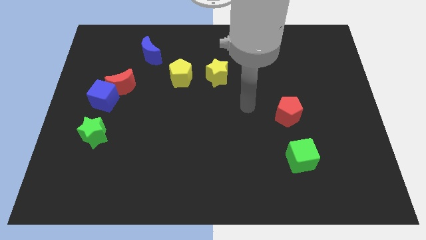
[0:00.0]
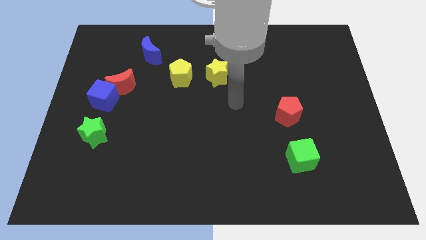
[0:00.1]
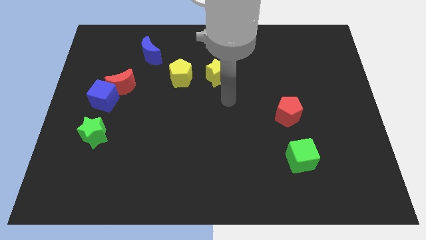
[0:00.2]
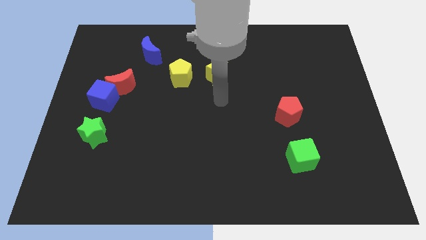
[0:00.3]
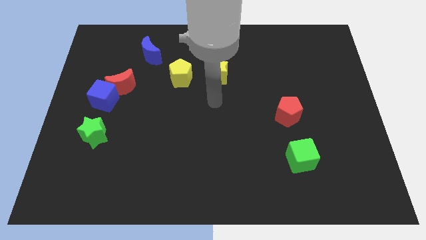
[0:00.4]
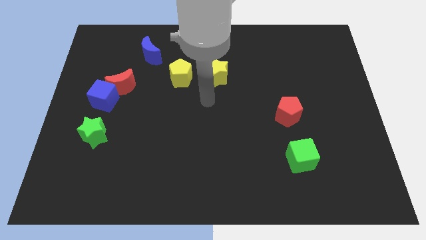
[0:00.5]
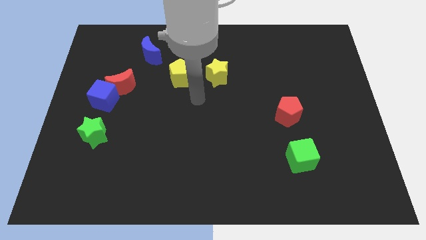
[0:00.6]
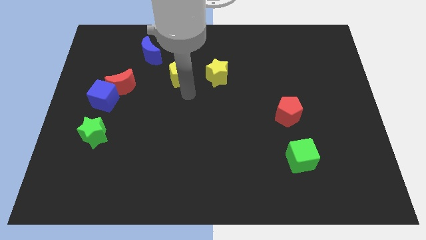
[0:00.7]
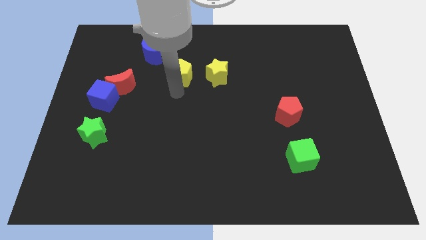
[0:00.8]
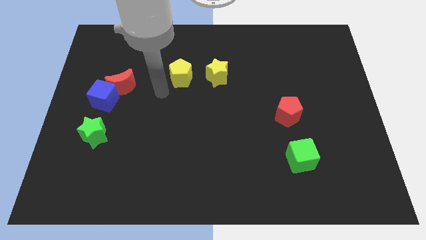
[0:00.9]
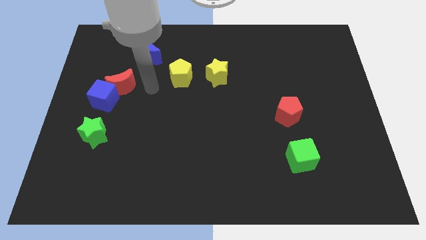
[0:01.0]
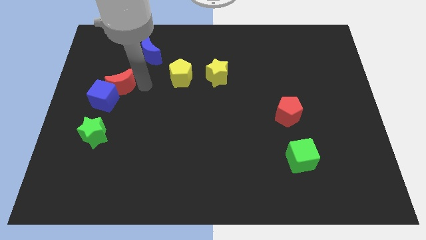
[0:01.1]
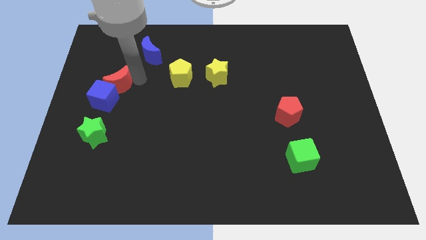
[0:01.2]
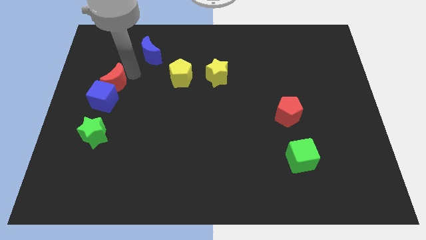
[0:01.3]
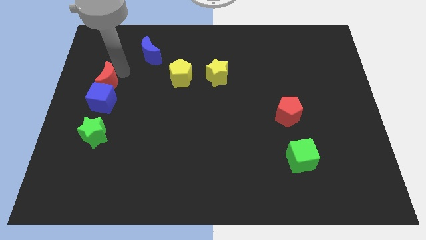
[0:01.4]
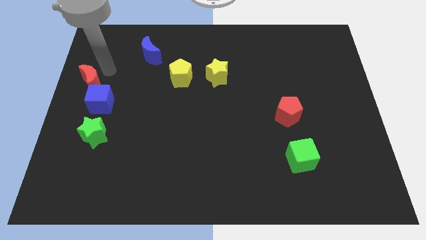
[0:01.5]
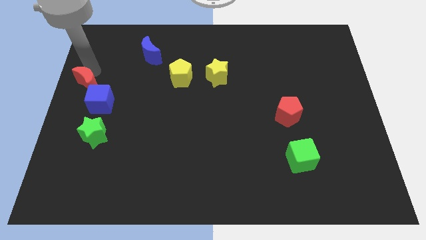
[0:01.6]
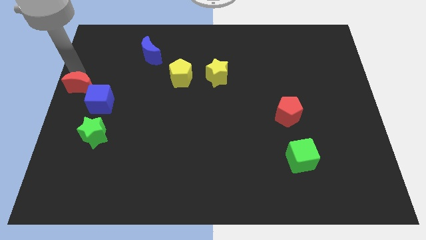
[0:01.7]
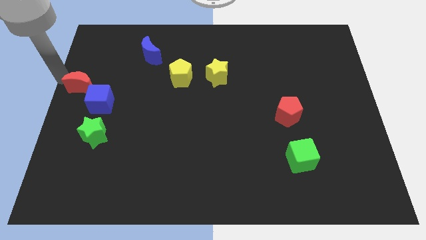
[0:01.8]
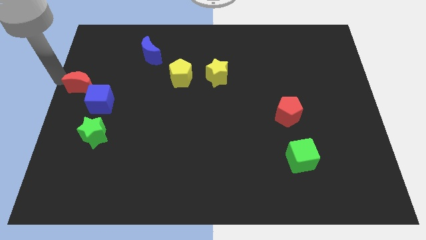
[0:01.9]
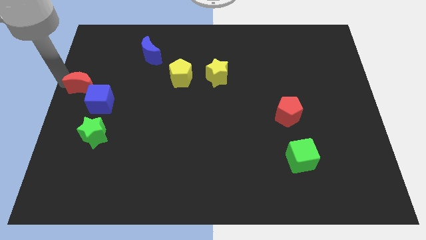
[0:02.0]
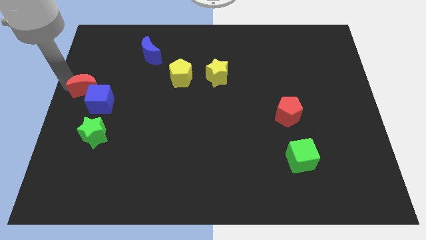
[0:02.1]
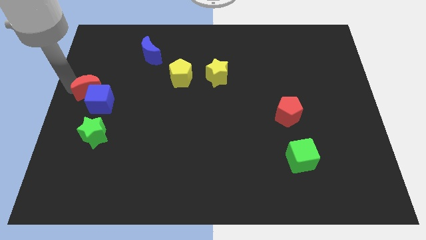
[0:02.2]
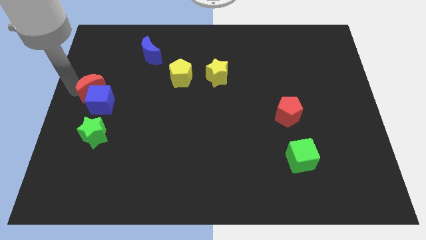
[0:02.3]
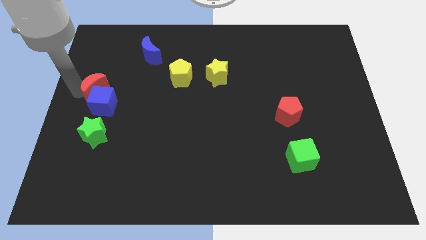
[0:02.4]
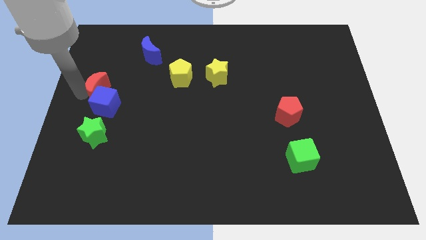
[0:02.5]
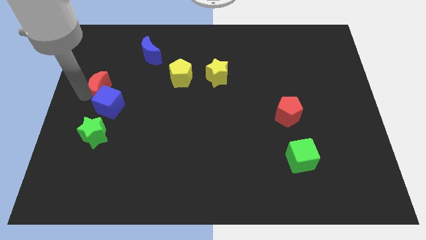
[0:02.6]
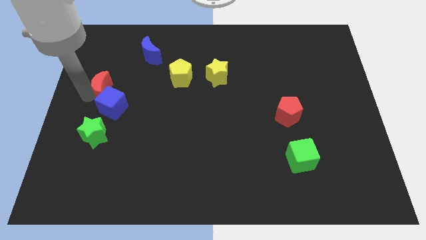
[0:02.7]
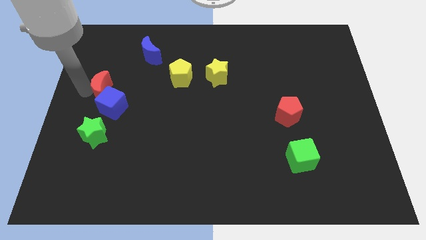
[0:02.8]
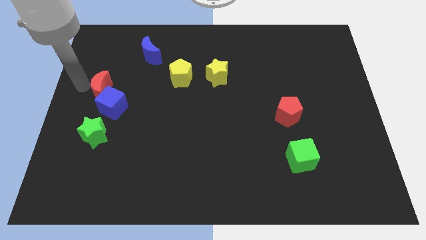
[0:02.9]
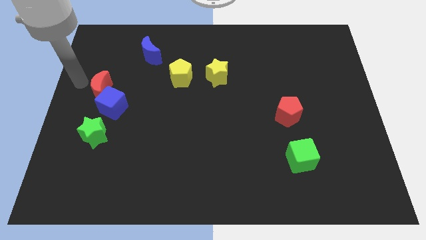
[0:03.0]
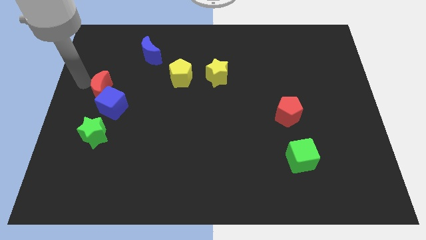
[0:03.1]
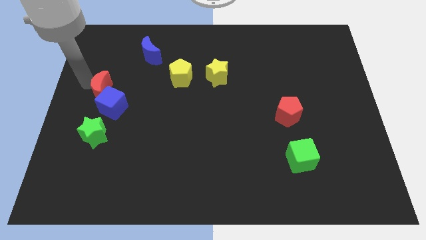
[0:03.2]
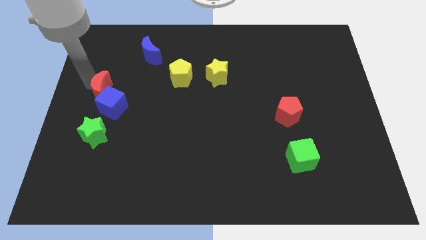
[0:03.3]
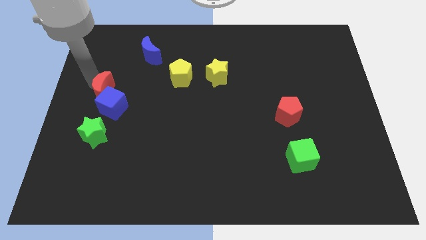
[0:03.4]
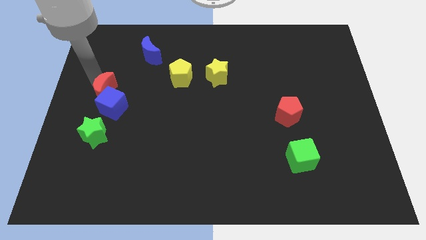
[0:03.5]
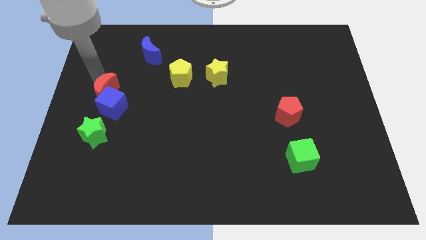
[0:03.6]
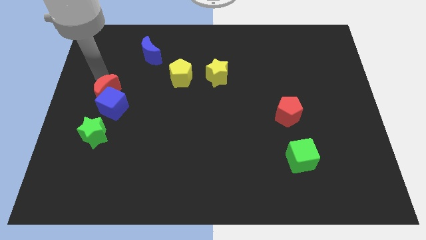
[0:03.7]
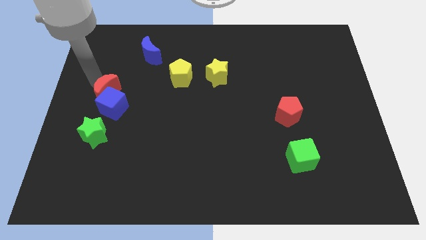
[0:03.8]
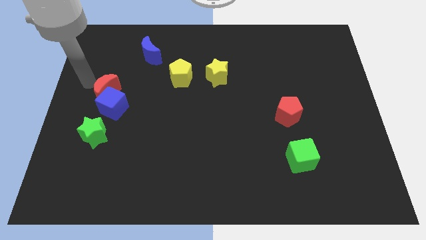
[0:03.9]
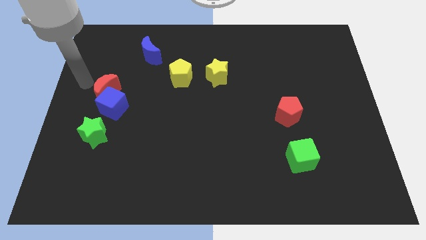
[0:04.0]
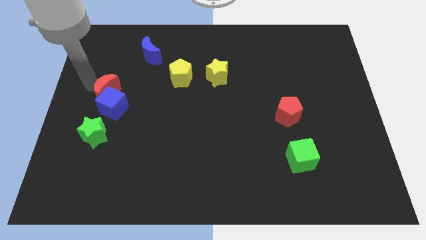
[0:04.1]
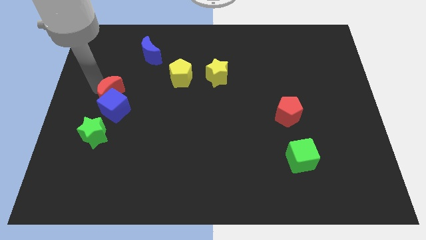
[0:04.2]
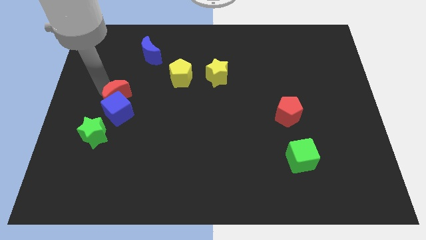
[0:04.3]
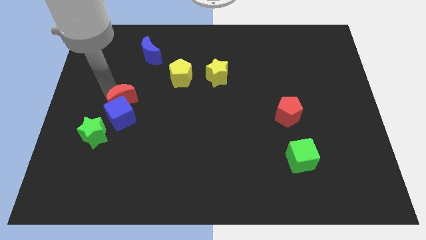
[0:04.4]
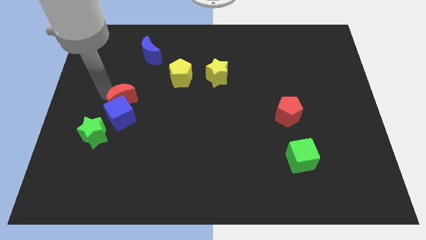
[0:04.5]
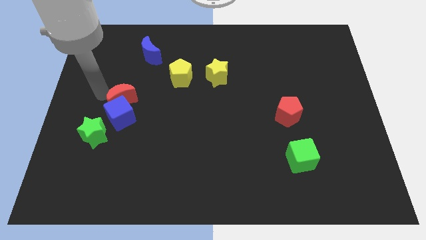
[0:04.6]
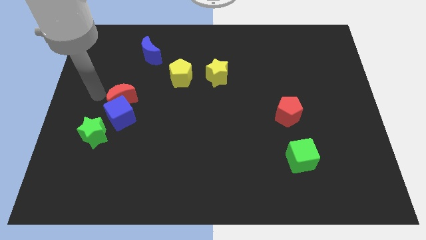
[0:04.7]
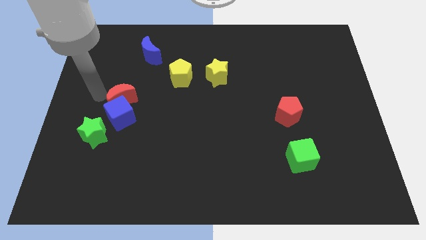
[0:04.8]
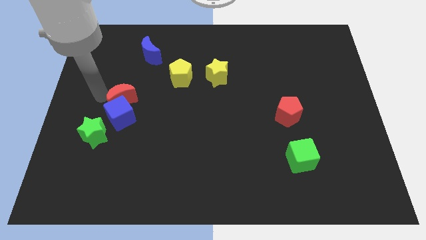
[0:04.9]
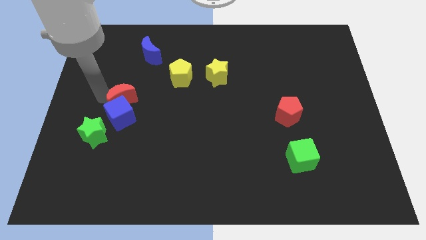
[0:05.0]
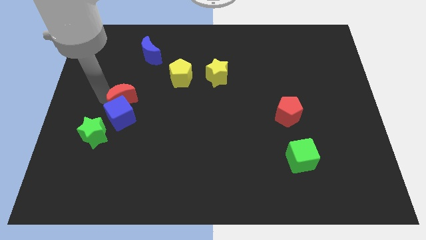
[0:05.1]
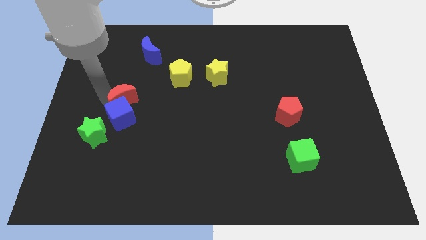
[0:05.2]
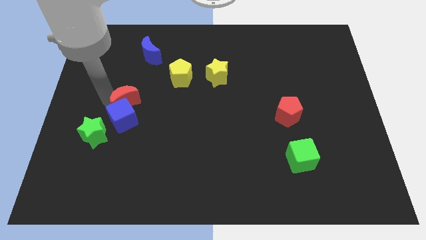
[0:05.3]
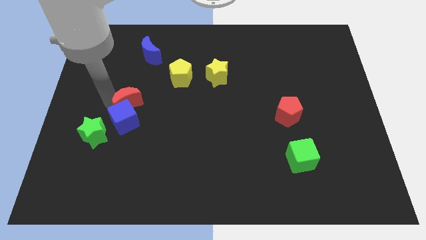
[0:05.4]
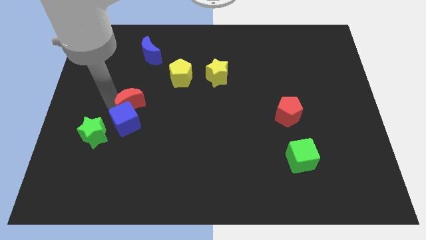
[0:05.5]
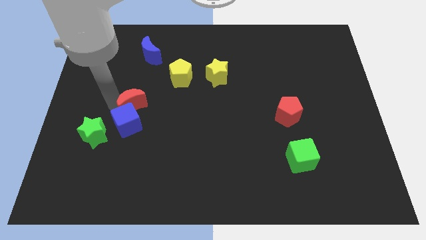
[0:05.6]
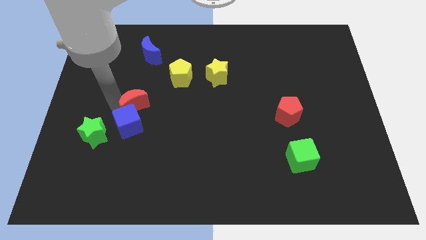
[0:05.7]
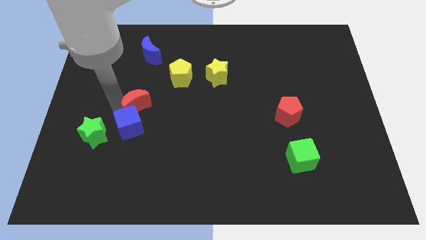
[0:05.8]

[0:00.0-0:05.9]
slightly slide the red moon down and then right

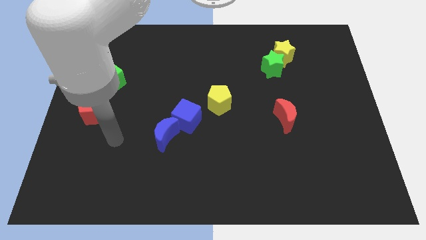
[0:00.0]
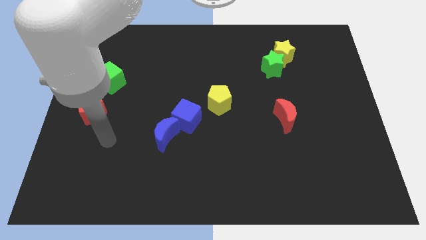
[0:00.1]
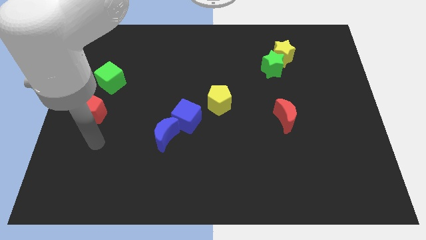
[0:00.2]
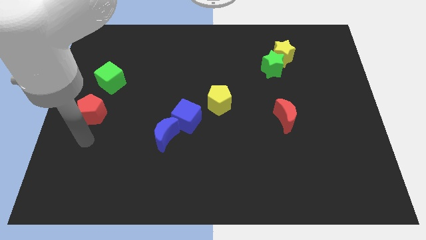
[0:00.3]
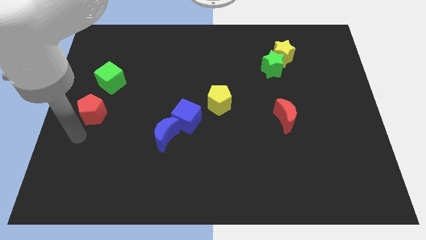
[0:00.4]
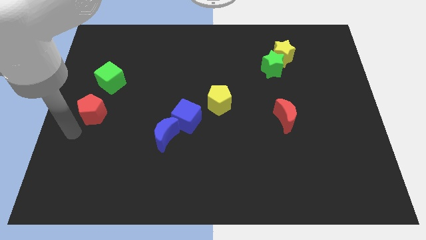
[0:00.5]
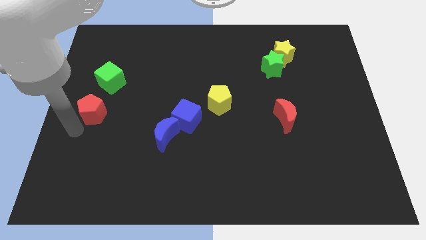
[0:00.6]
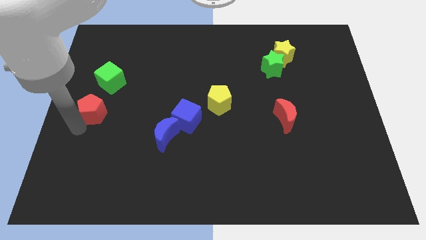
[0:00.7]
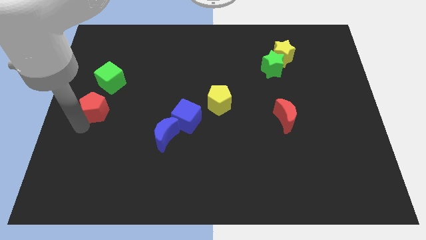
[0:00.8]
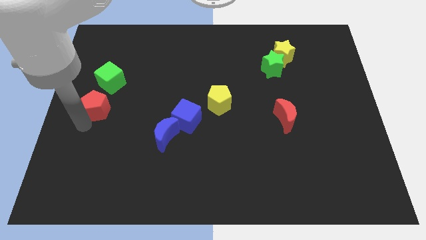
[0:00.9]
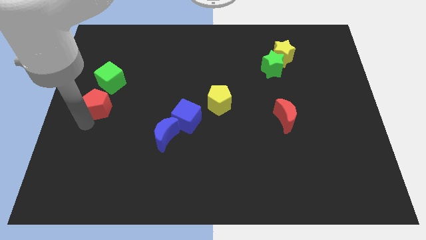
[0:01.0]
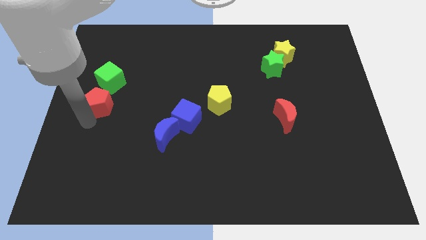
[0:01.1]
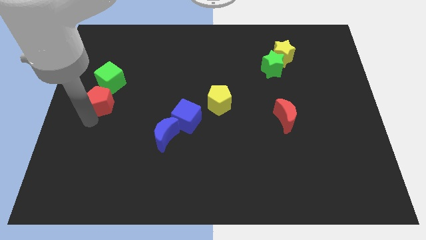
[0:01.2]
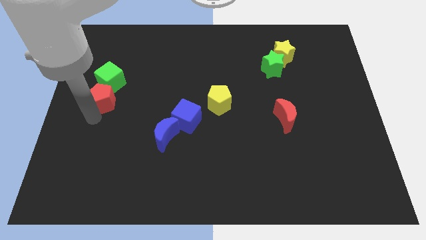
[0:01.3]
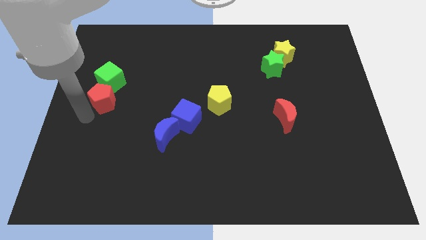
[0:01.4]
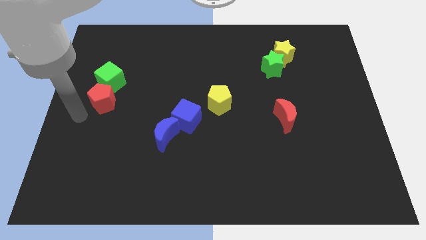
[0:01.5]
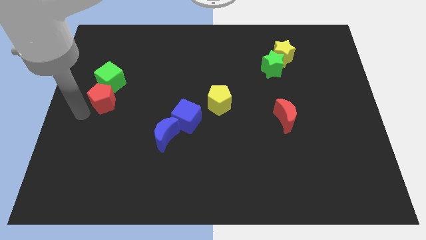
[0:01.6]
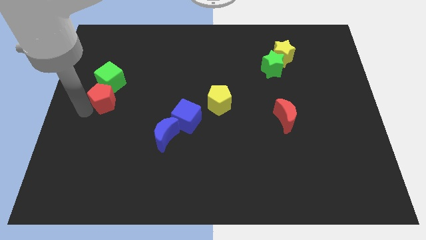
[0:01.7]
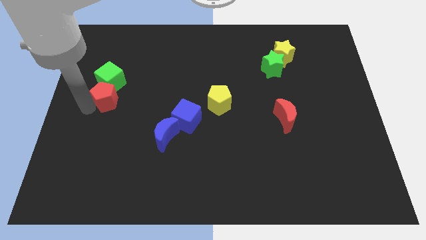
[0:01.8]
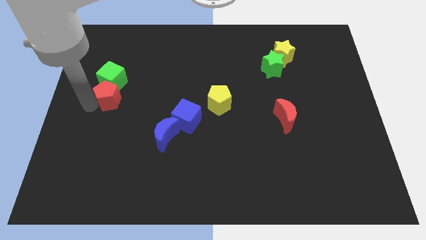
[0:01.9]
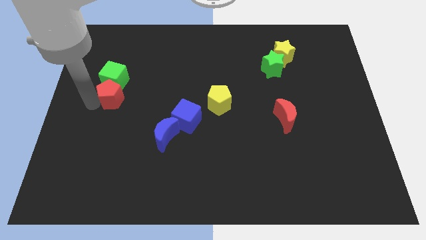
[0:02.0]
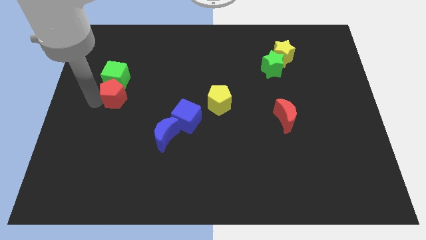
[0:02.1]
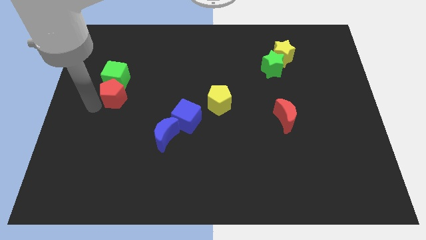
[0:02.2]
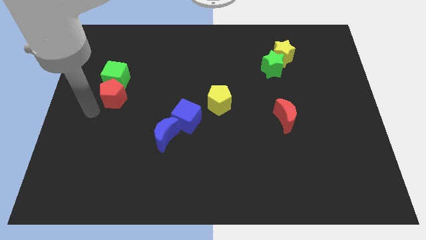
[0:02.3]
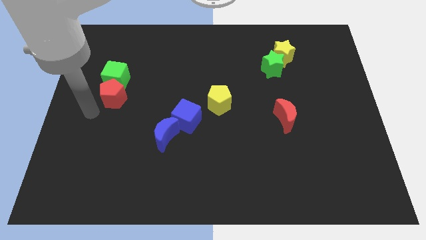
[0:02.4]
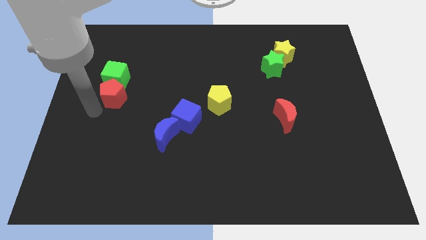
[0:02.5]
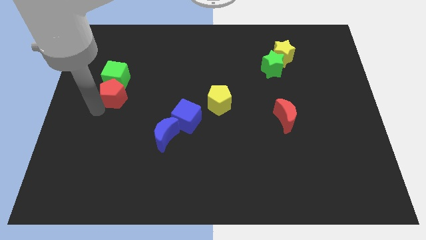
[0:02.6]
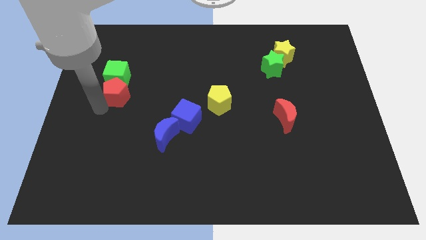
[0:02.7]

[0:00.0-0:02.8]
slightly slide the red pentagon up and right
